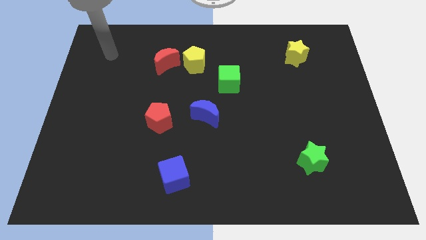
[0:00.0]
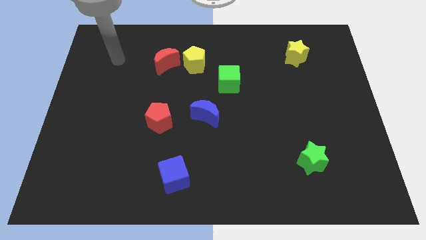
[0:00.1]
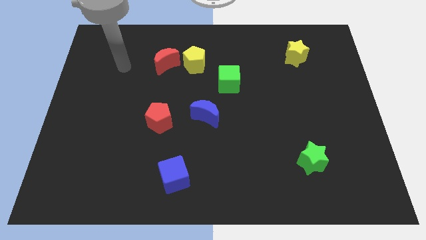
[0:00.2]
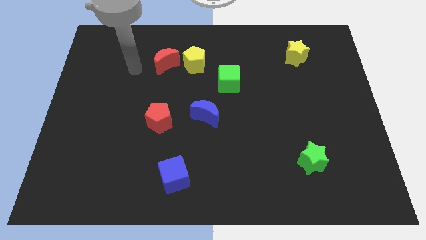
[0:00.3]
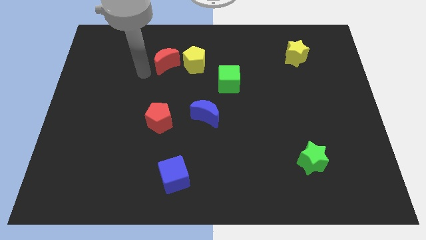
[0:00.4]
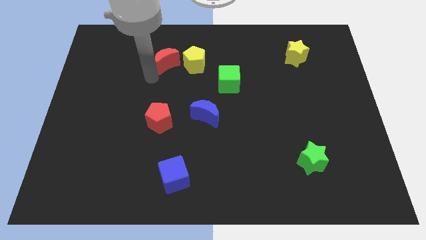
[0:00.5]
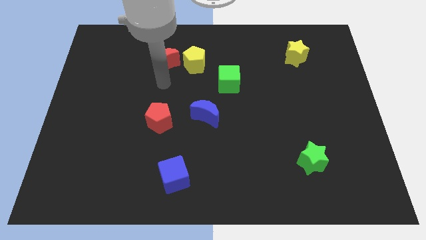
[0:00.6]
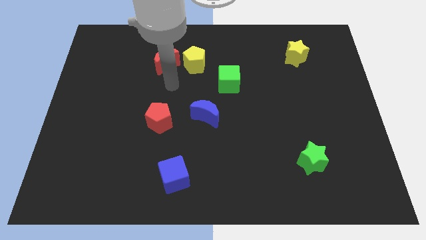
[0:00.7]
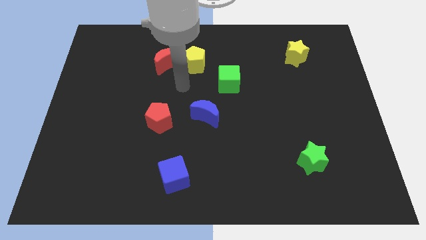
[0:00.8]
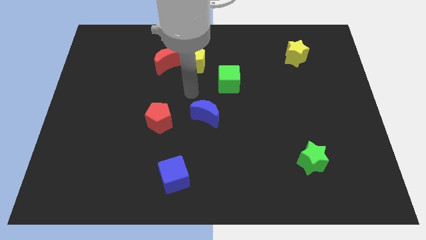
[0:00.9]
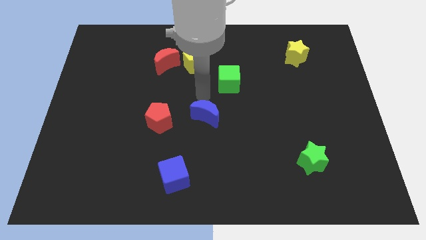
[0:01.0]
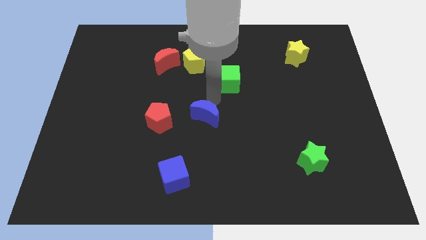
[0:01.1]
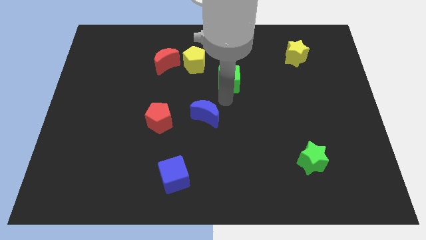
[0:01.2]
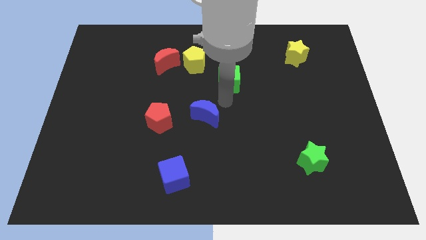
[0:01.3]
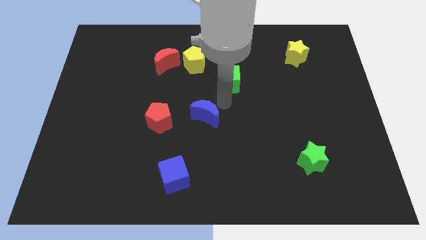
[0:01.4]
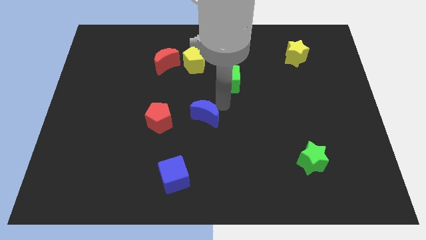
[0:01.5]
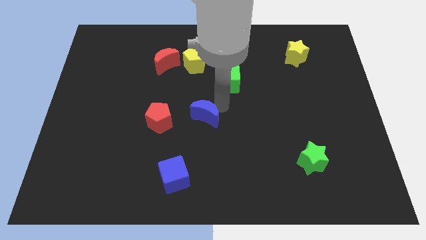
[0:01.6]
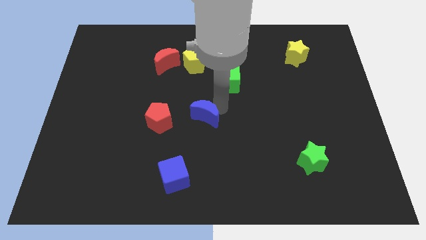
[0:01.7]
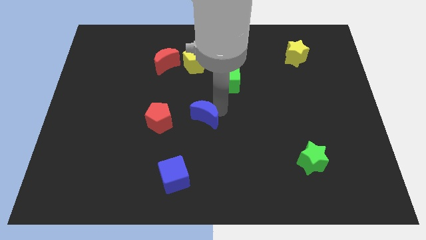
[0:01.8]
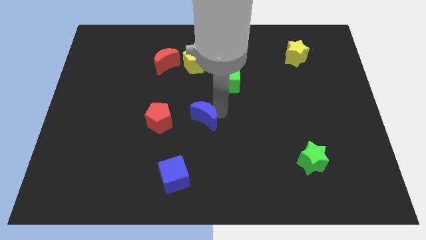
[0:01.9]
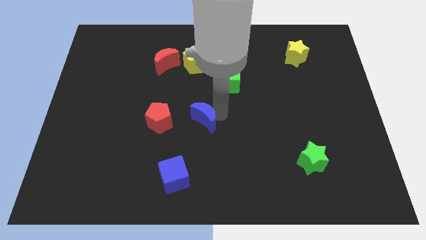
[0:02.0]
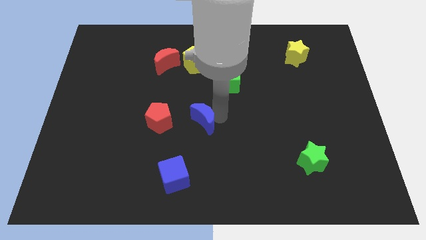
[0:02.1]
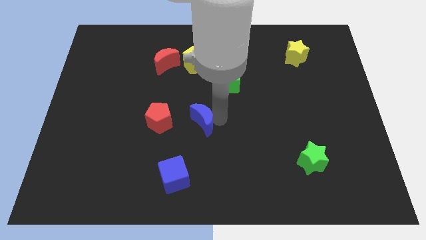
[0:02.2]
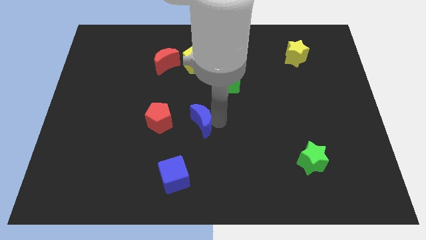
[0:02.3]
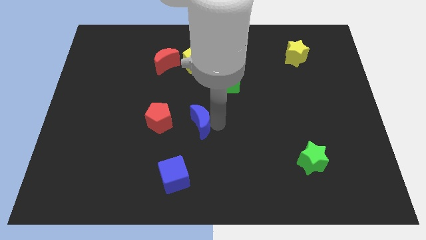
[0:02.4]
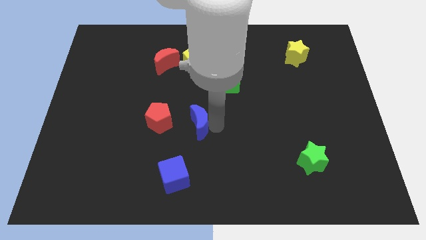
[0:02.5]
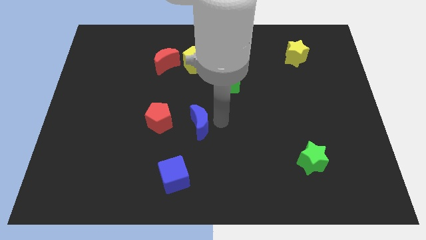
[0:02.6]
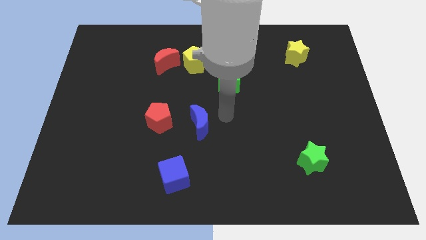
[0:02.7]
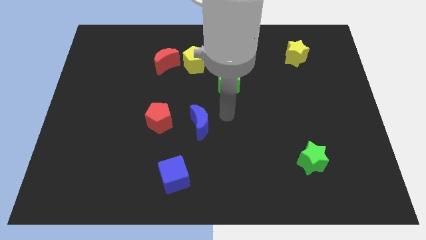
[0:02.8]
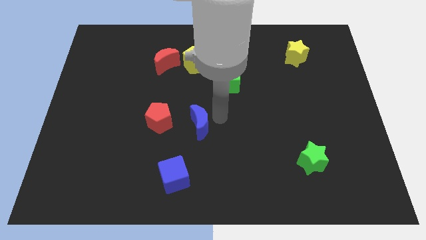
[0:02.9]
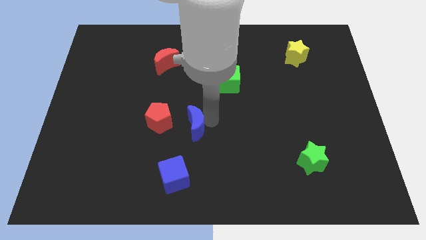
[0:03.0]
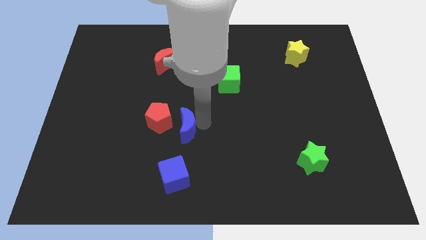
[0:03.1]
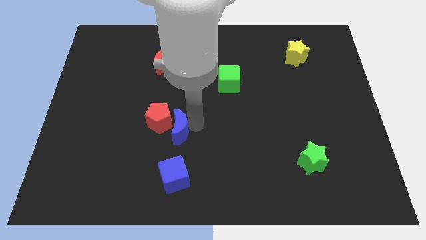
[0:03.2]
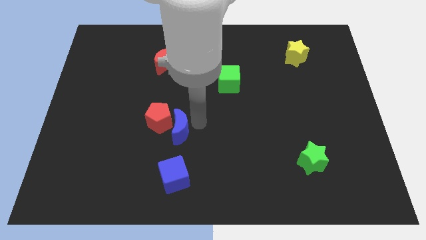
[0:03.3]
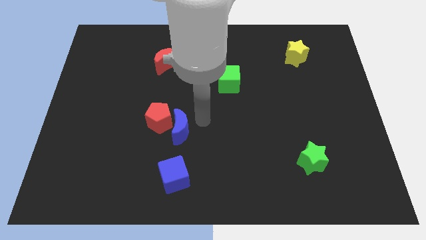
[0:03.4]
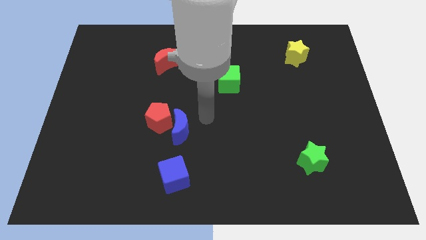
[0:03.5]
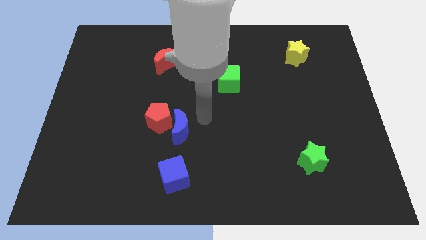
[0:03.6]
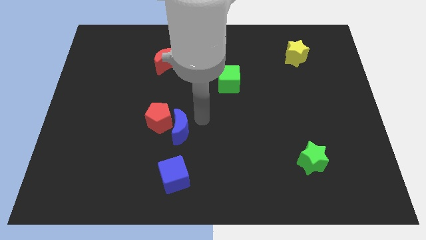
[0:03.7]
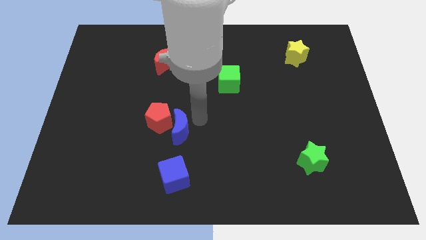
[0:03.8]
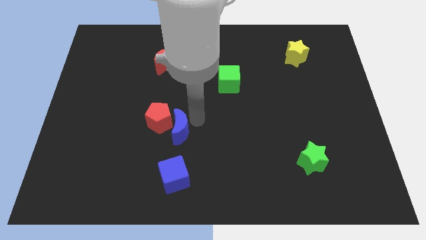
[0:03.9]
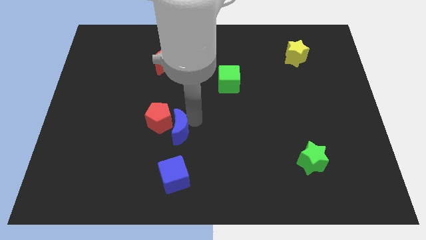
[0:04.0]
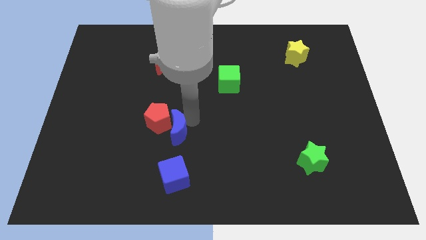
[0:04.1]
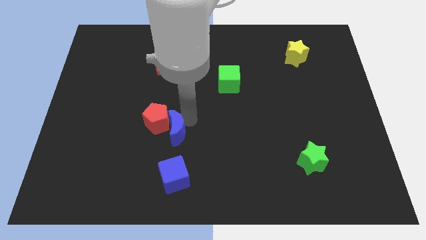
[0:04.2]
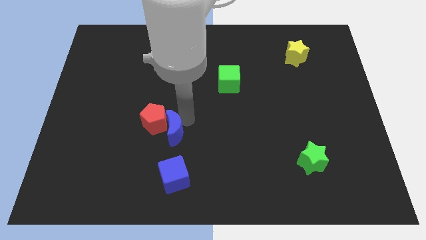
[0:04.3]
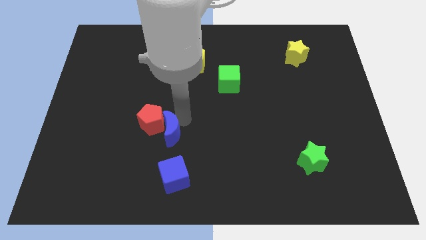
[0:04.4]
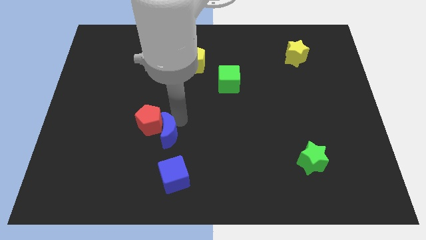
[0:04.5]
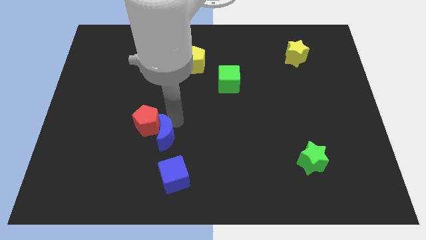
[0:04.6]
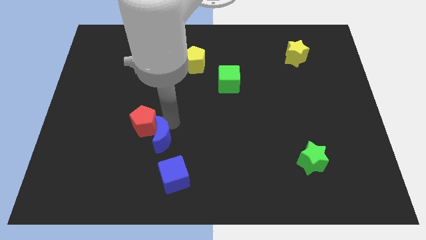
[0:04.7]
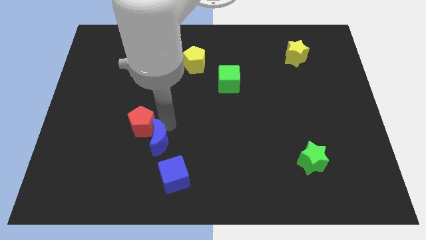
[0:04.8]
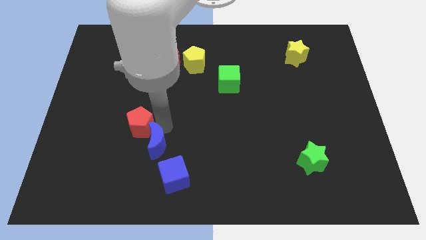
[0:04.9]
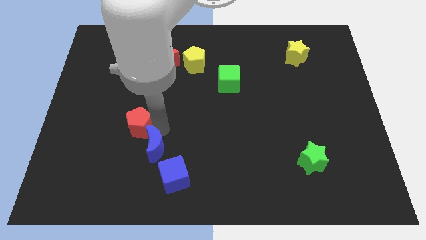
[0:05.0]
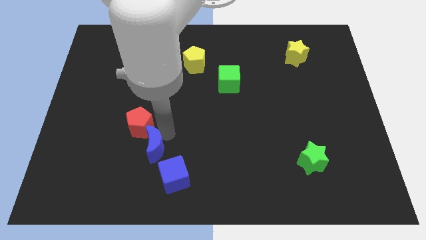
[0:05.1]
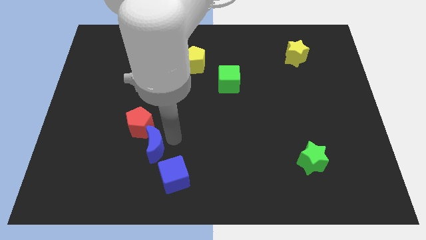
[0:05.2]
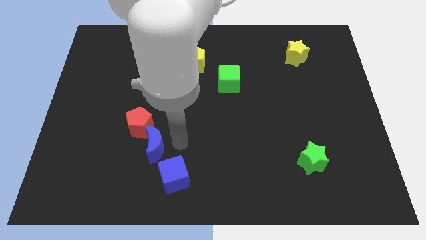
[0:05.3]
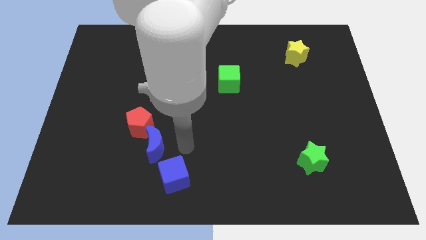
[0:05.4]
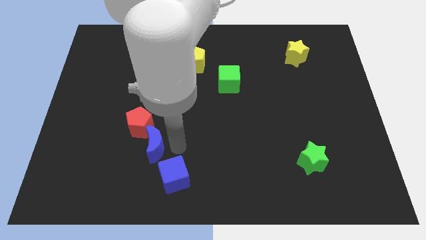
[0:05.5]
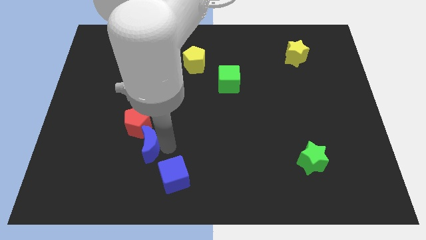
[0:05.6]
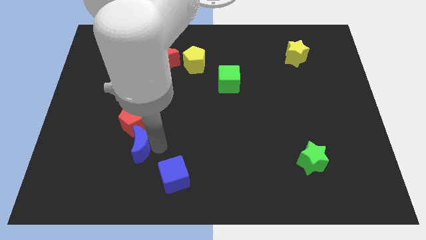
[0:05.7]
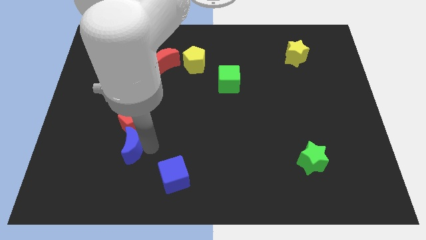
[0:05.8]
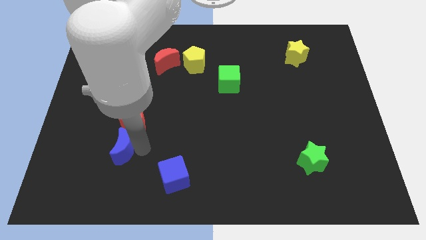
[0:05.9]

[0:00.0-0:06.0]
put the blue moon to the bottom left of the red pentagon

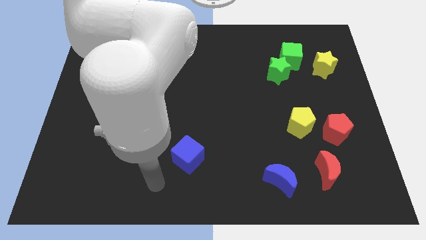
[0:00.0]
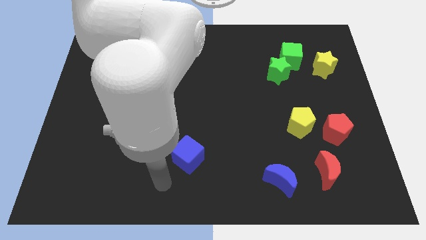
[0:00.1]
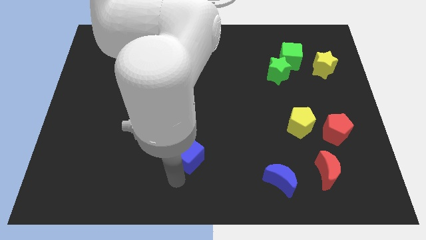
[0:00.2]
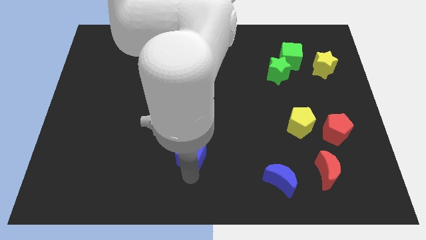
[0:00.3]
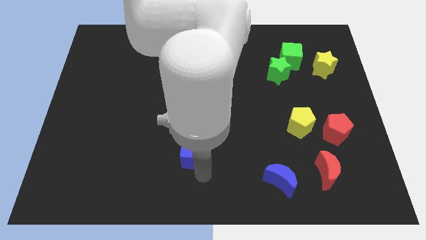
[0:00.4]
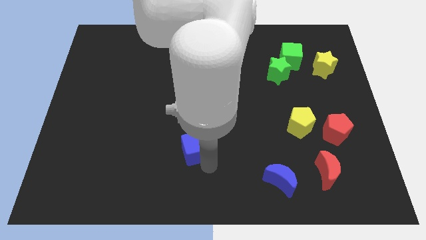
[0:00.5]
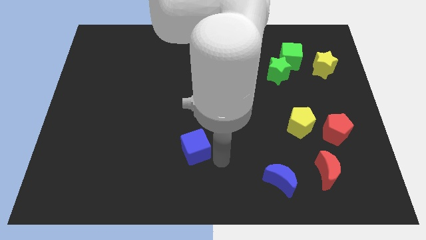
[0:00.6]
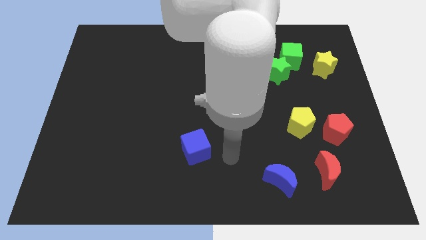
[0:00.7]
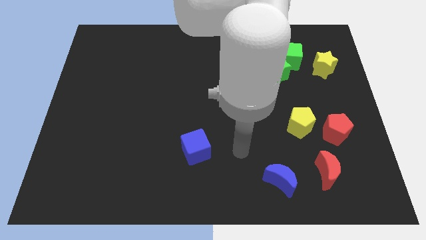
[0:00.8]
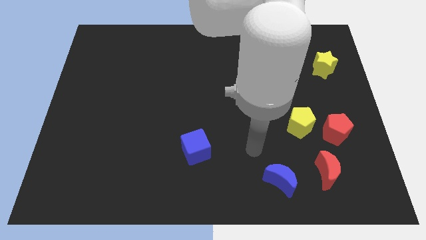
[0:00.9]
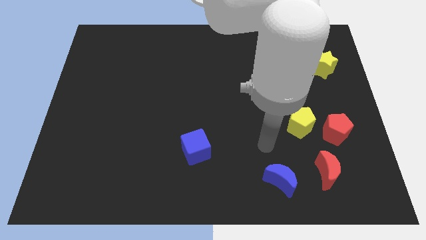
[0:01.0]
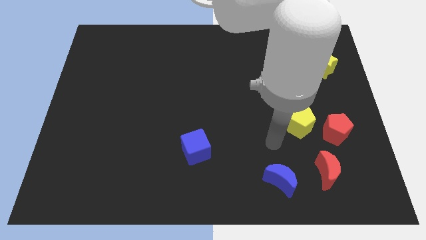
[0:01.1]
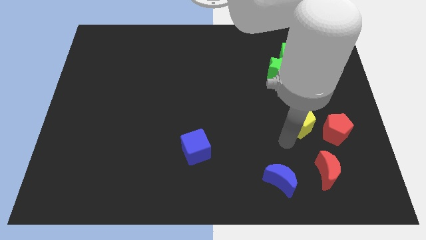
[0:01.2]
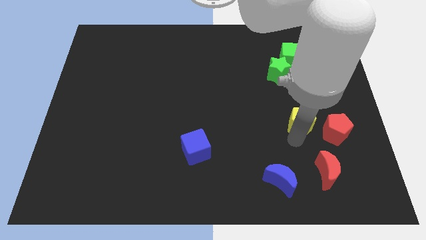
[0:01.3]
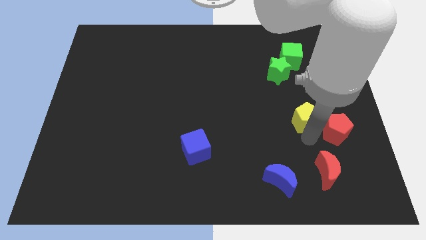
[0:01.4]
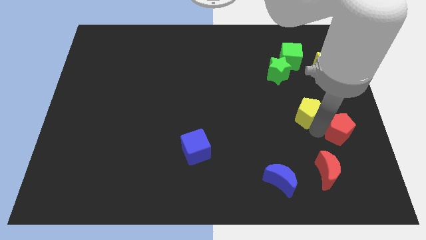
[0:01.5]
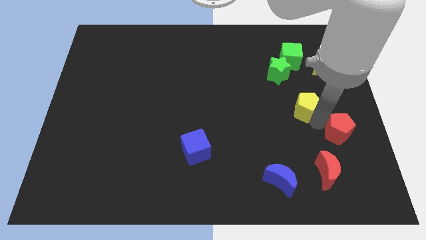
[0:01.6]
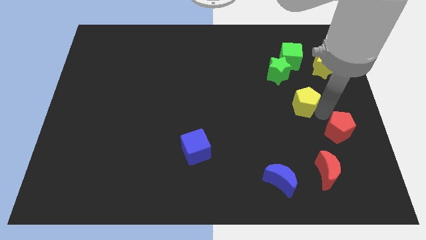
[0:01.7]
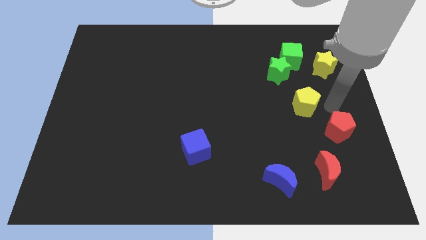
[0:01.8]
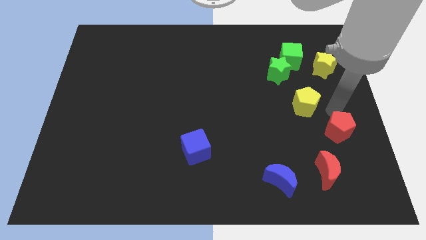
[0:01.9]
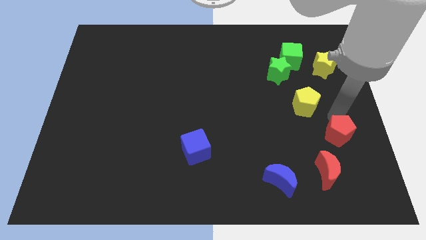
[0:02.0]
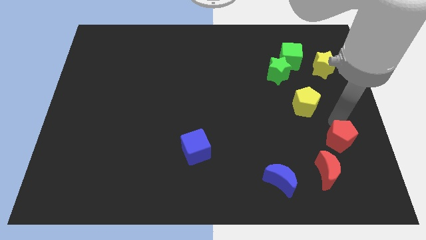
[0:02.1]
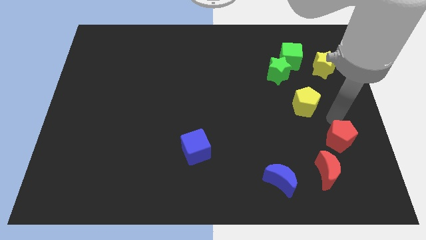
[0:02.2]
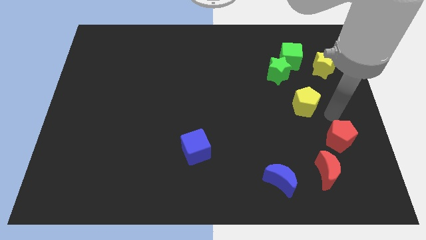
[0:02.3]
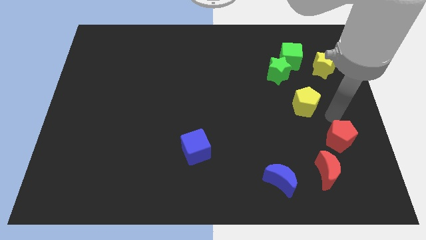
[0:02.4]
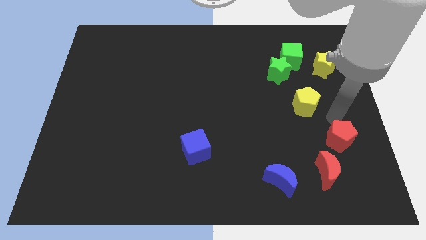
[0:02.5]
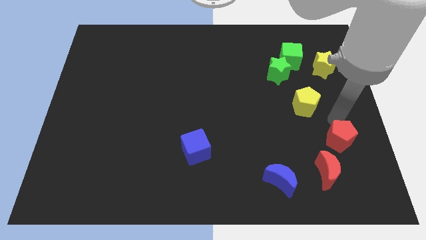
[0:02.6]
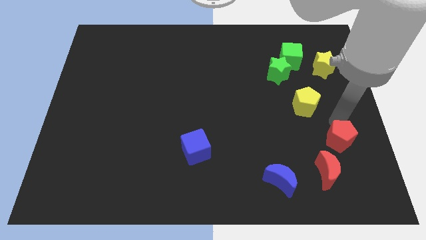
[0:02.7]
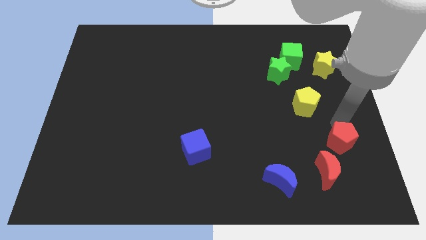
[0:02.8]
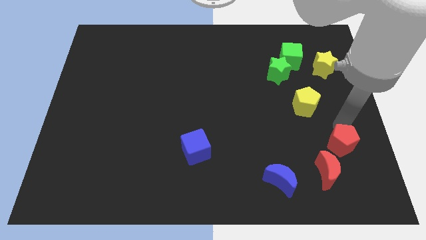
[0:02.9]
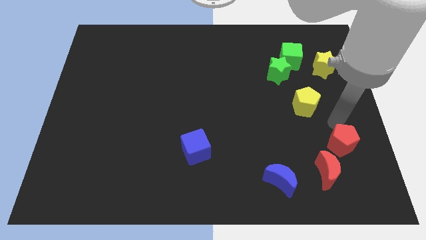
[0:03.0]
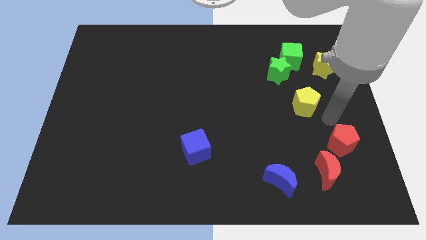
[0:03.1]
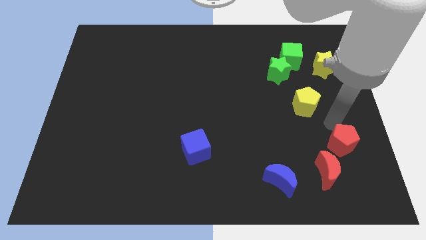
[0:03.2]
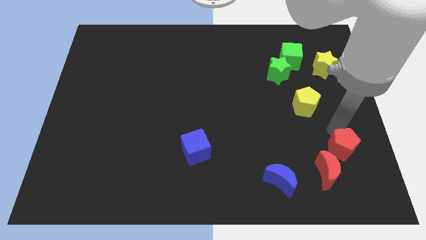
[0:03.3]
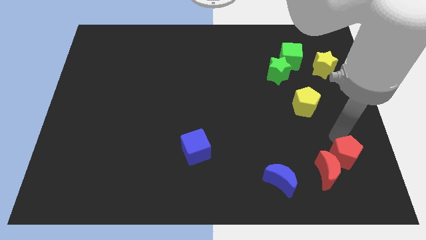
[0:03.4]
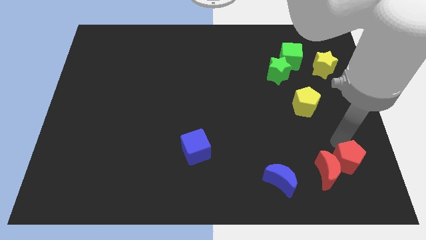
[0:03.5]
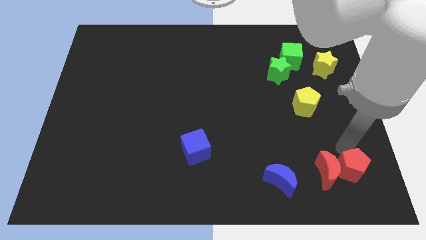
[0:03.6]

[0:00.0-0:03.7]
push the red pentagon to the right of the blue moon
